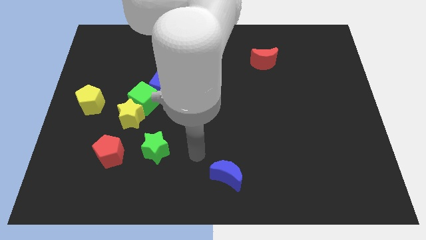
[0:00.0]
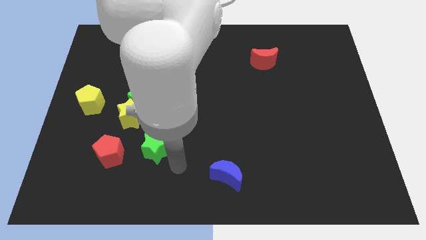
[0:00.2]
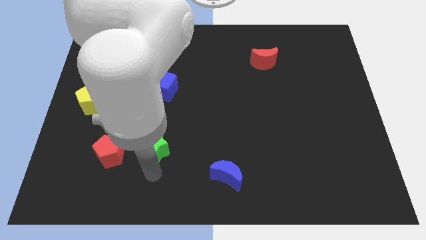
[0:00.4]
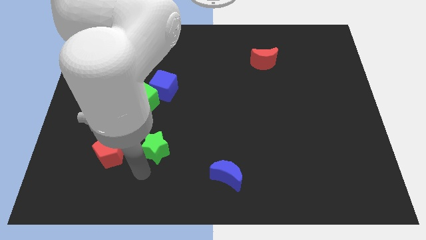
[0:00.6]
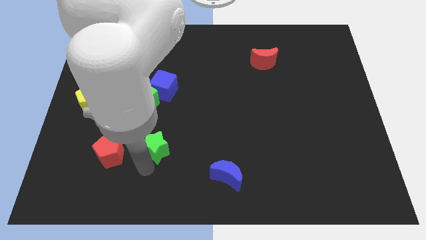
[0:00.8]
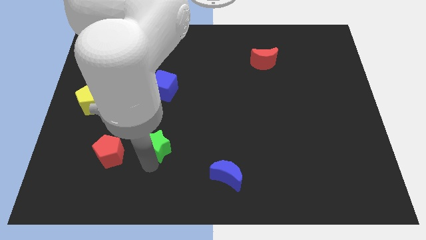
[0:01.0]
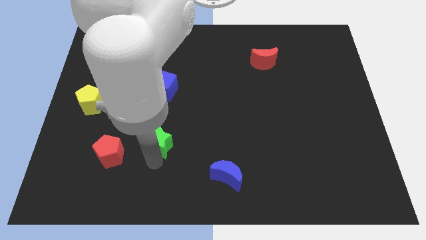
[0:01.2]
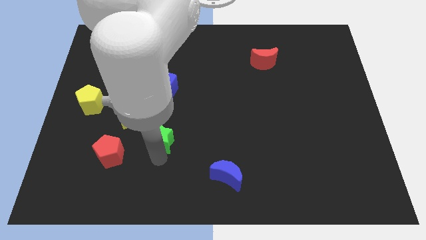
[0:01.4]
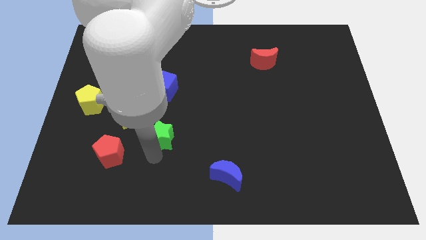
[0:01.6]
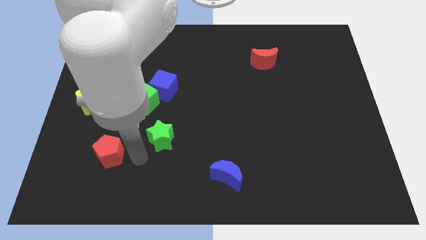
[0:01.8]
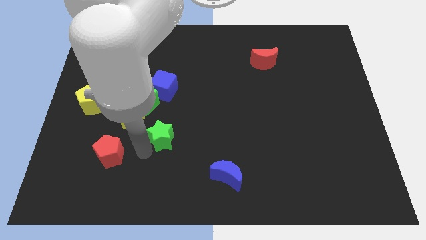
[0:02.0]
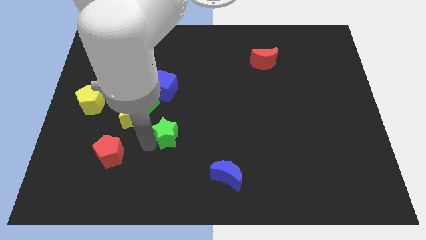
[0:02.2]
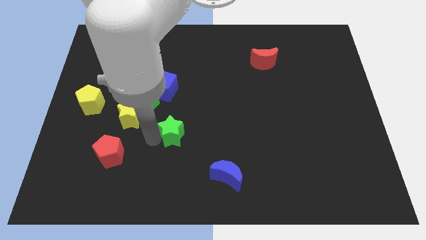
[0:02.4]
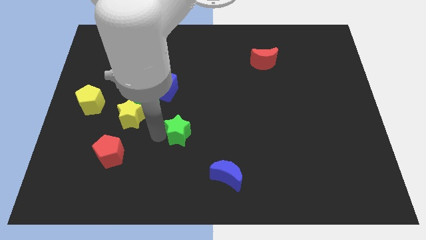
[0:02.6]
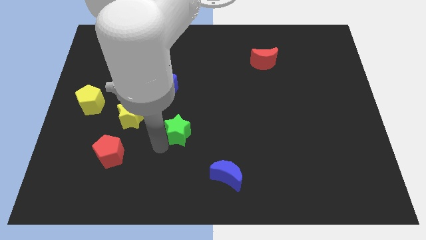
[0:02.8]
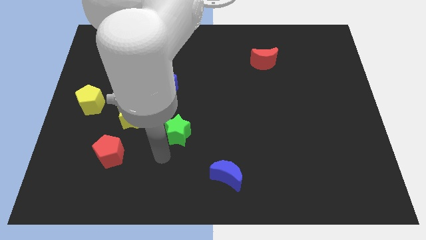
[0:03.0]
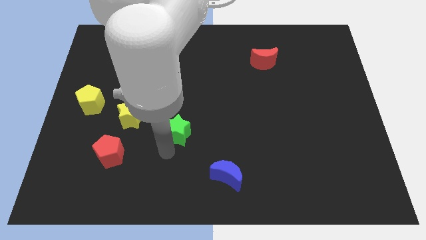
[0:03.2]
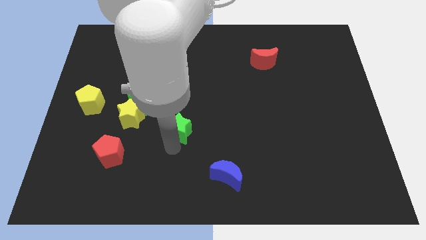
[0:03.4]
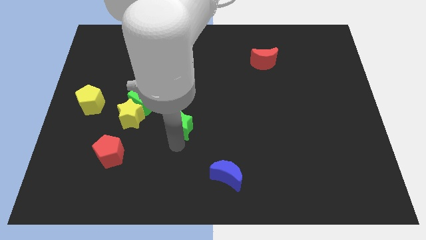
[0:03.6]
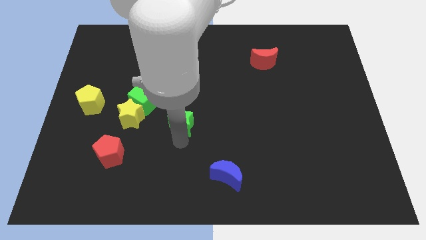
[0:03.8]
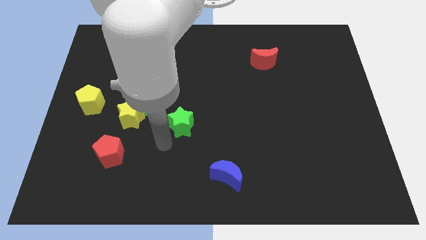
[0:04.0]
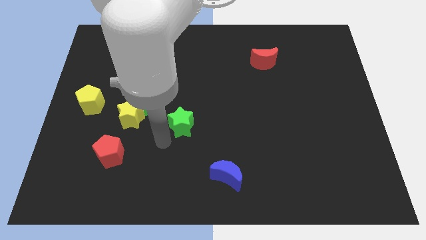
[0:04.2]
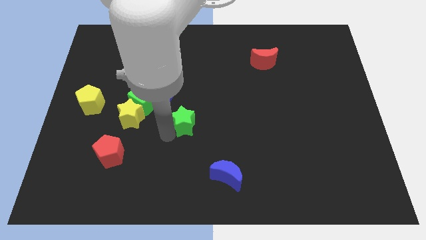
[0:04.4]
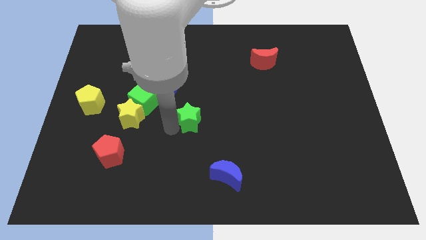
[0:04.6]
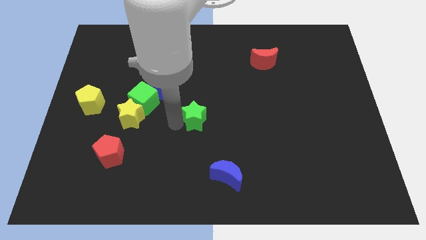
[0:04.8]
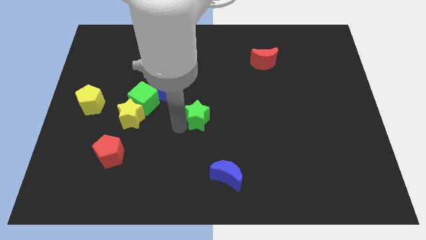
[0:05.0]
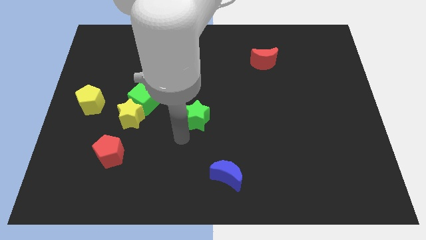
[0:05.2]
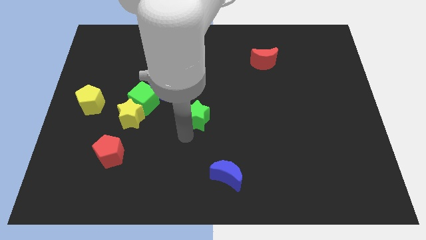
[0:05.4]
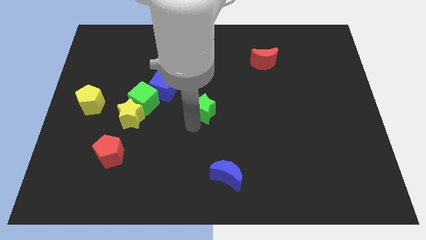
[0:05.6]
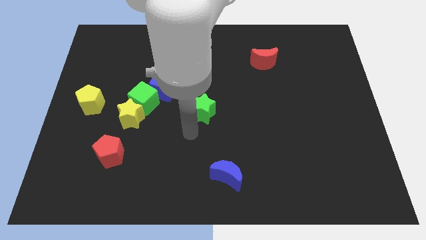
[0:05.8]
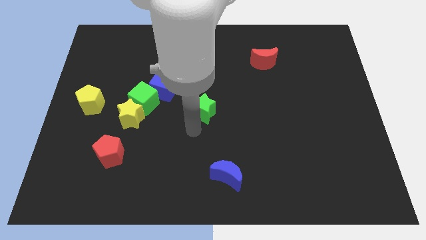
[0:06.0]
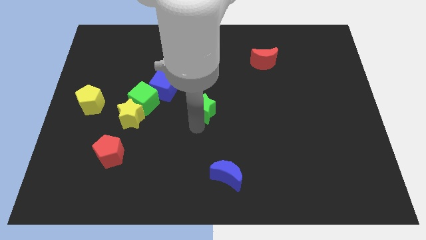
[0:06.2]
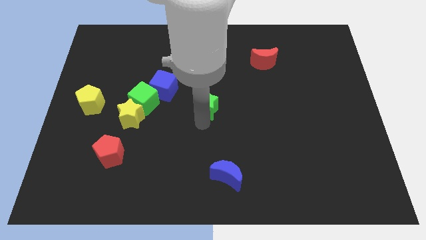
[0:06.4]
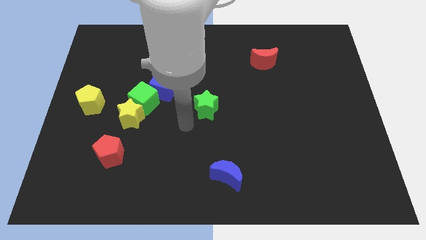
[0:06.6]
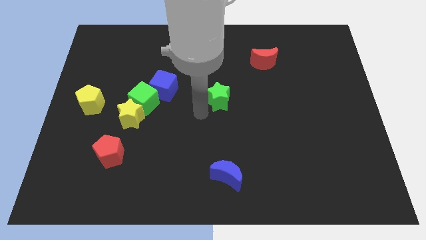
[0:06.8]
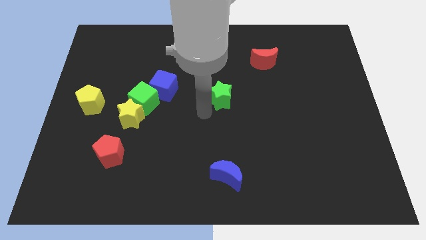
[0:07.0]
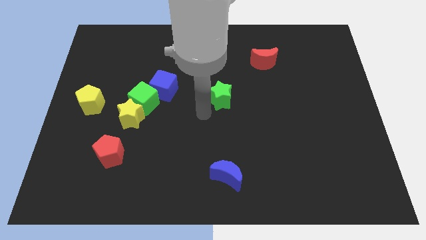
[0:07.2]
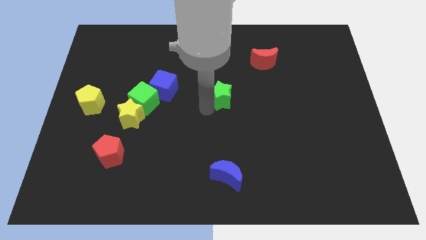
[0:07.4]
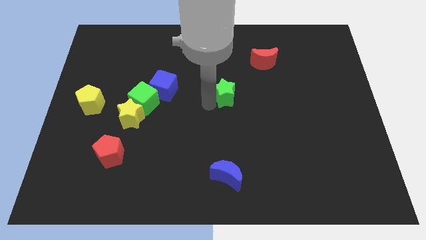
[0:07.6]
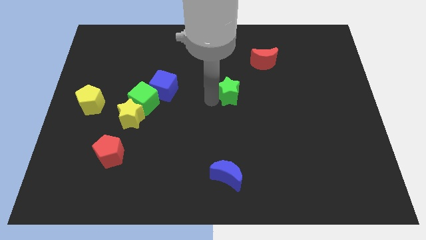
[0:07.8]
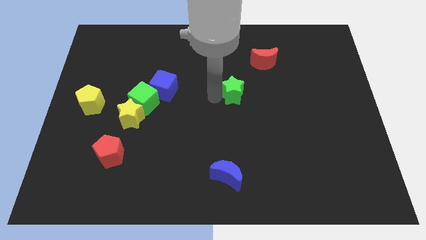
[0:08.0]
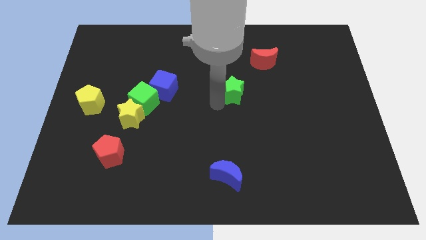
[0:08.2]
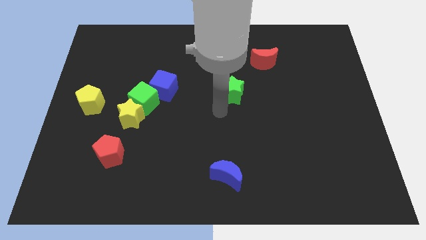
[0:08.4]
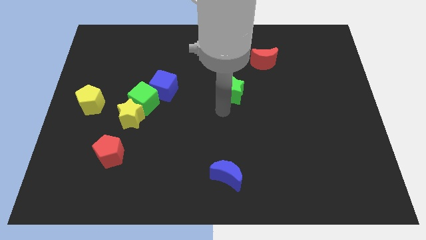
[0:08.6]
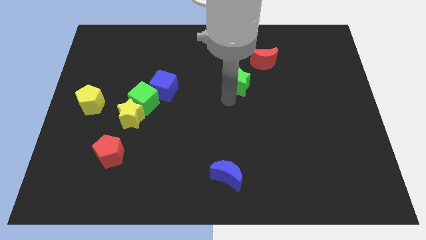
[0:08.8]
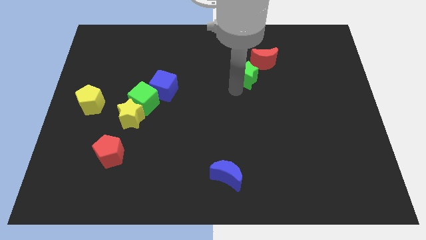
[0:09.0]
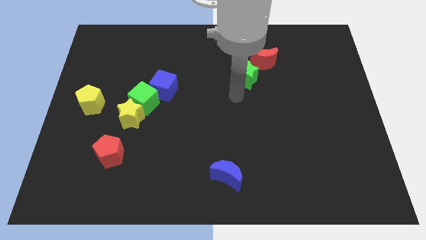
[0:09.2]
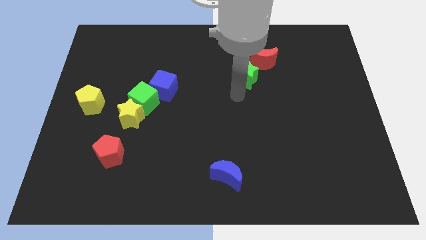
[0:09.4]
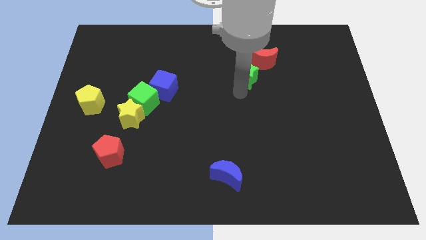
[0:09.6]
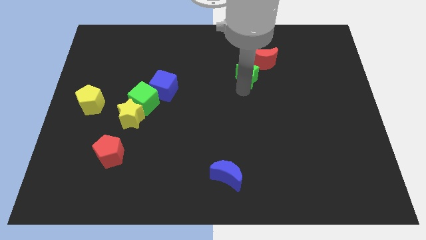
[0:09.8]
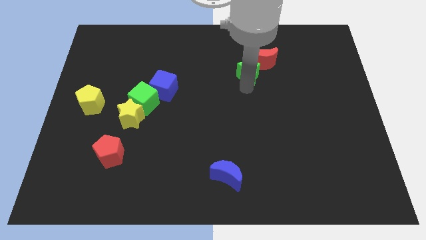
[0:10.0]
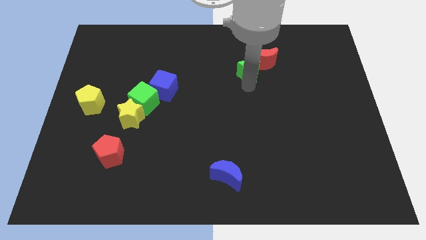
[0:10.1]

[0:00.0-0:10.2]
push the green star towards the red moon

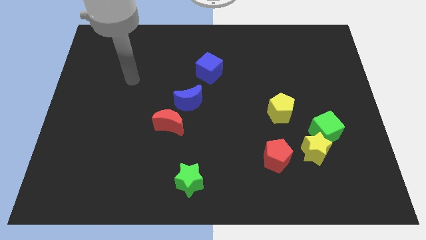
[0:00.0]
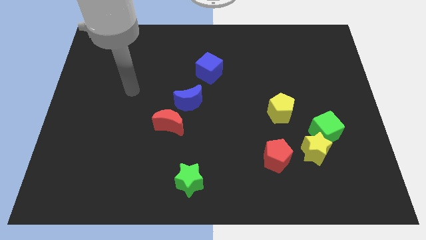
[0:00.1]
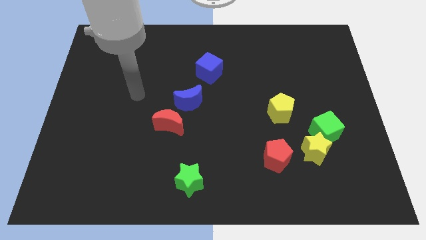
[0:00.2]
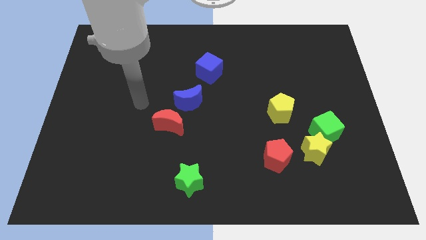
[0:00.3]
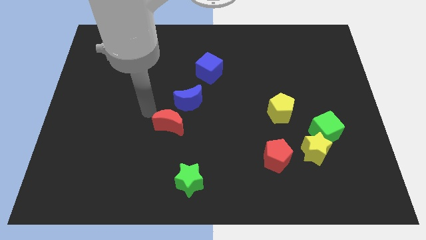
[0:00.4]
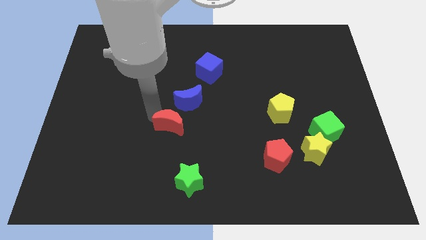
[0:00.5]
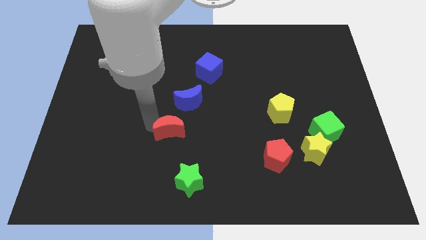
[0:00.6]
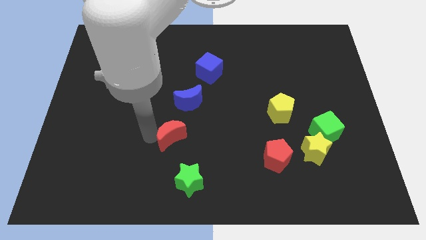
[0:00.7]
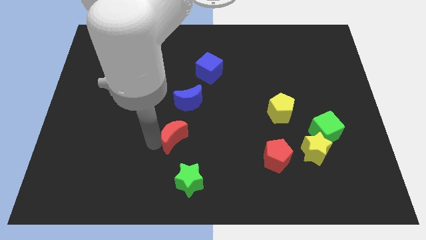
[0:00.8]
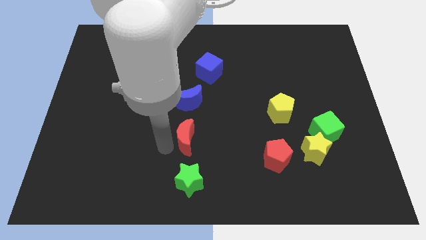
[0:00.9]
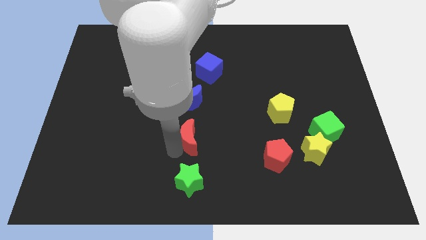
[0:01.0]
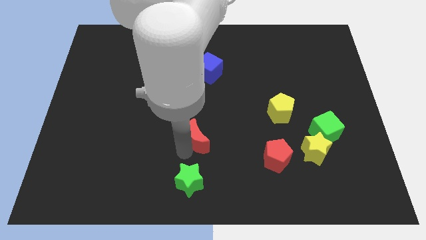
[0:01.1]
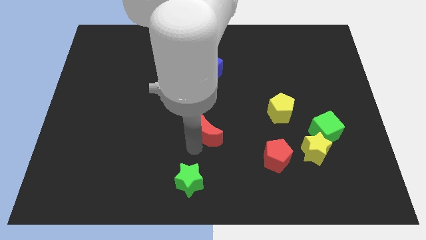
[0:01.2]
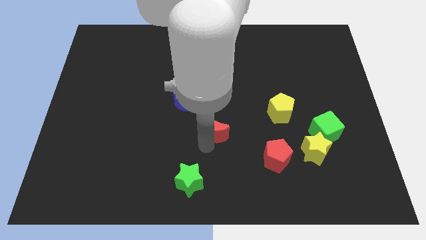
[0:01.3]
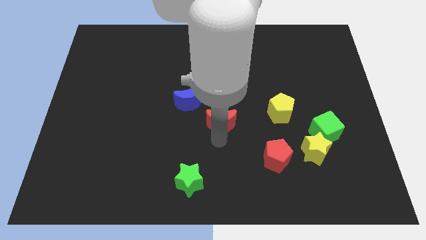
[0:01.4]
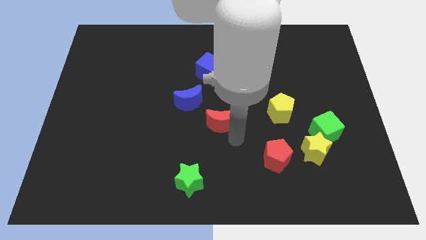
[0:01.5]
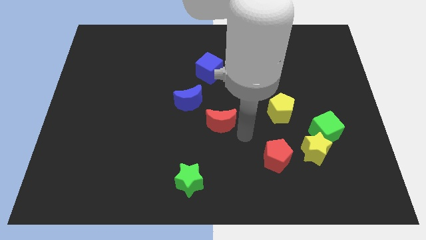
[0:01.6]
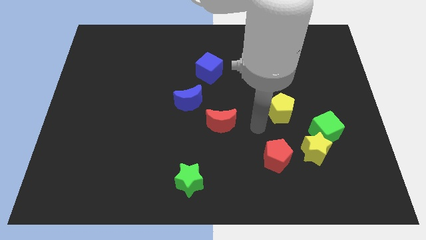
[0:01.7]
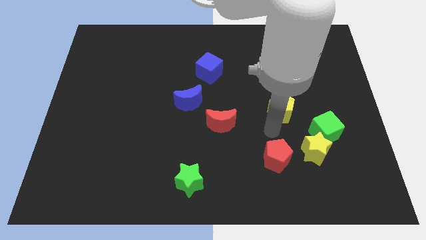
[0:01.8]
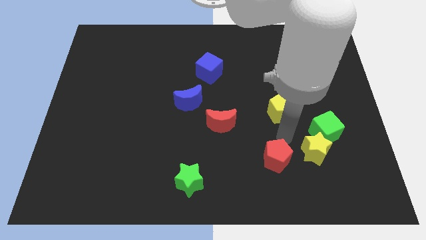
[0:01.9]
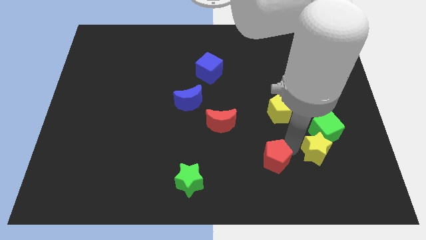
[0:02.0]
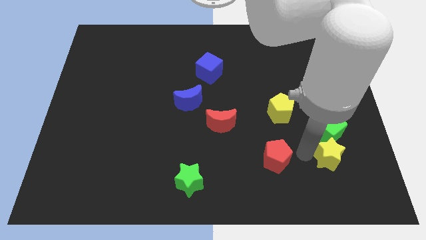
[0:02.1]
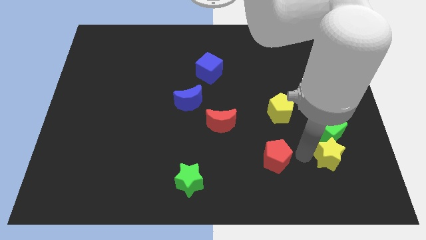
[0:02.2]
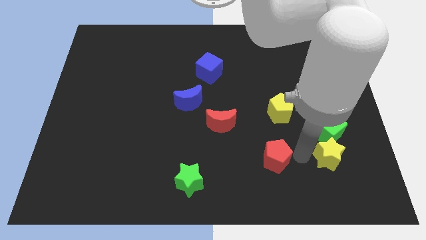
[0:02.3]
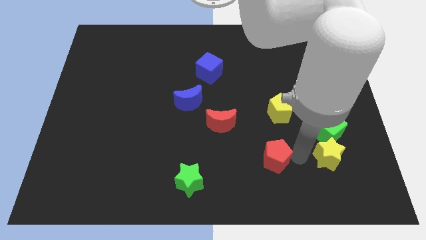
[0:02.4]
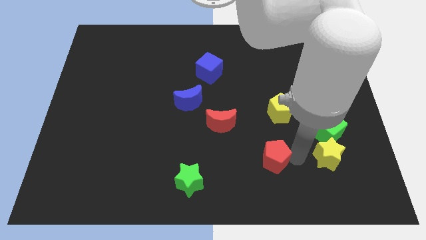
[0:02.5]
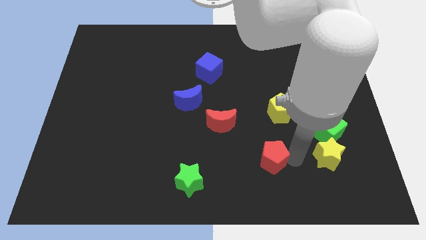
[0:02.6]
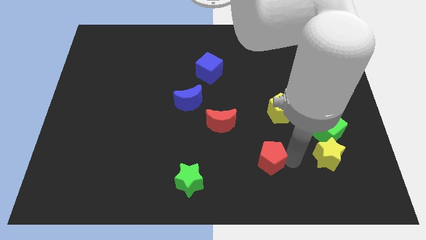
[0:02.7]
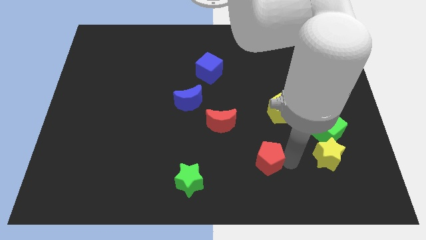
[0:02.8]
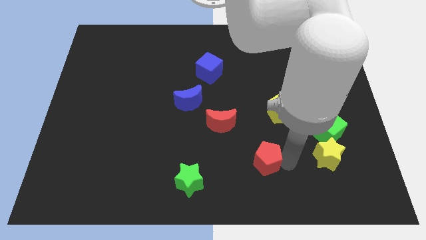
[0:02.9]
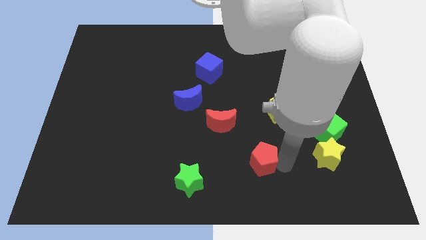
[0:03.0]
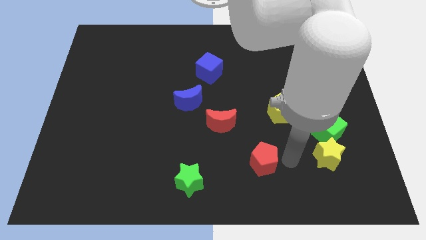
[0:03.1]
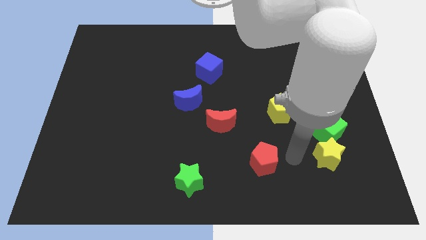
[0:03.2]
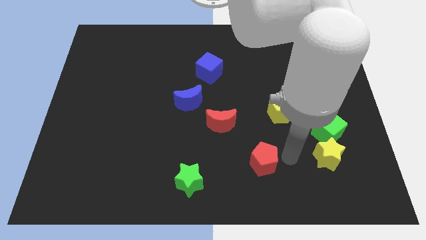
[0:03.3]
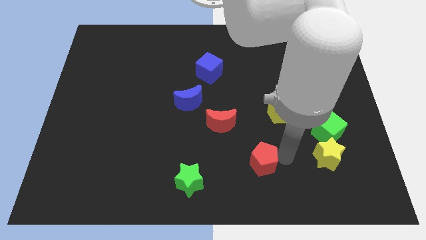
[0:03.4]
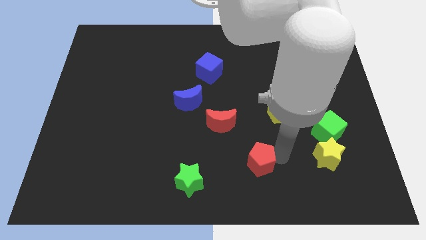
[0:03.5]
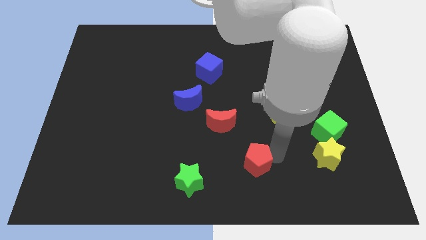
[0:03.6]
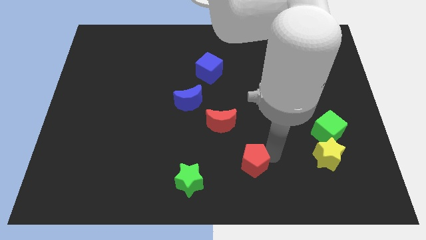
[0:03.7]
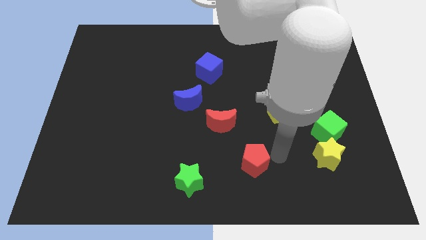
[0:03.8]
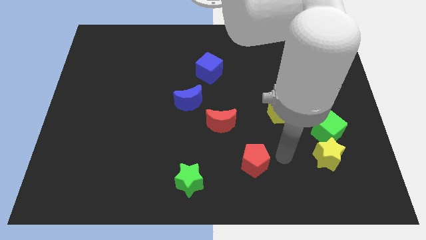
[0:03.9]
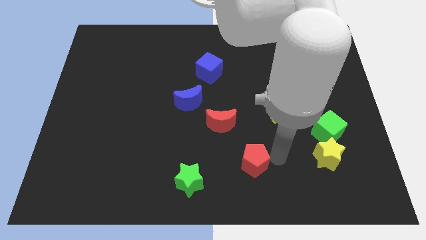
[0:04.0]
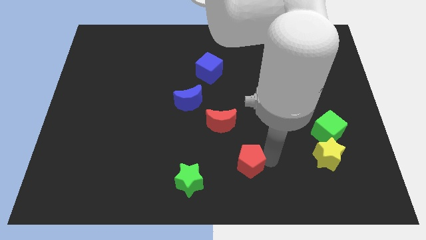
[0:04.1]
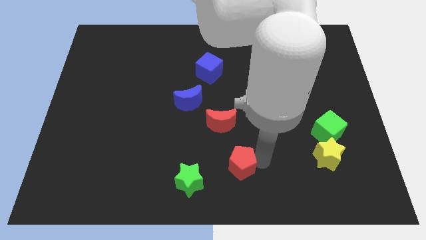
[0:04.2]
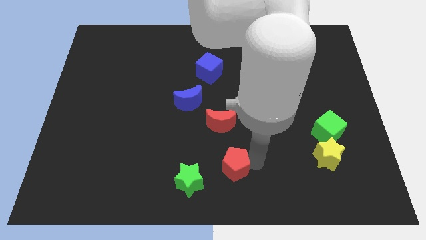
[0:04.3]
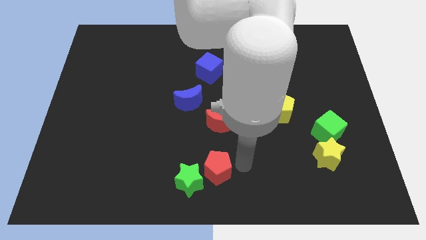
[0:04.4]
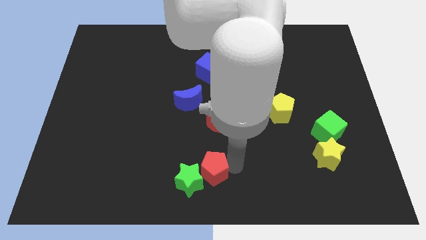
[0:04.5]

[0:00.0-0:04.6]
move the red pentagon towards the green star
